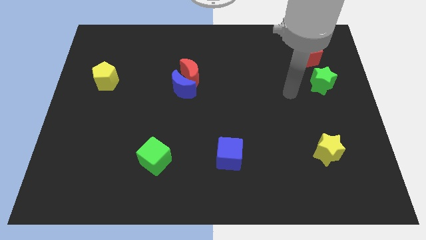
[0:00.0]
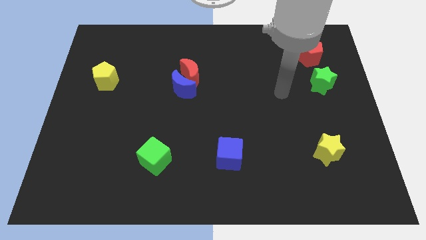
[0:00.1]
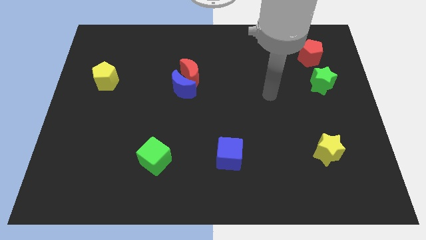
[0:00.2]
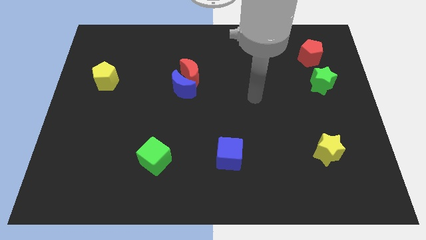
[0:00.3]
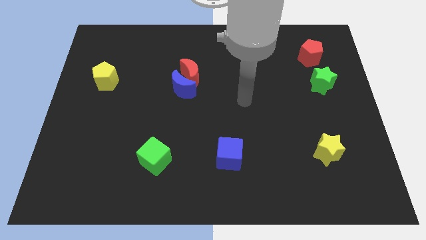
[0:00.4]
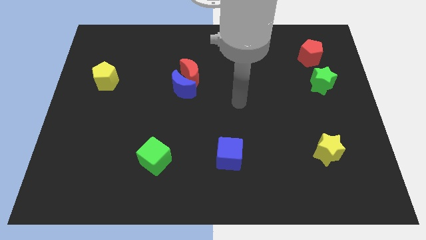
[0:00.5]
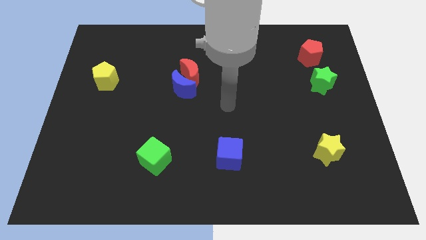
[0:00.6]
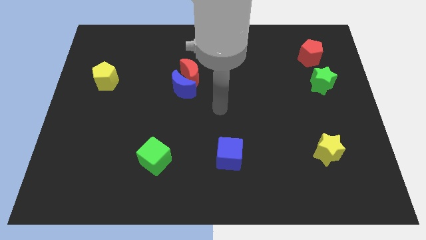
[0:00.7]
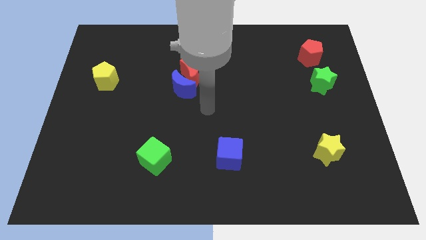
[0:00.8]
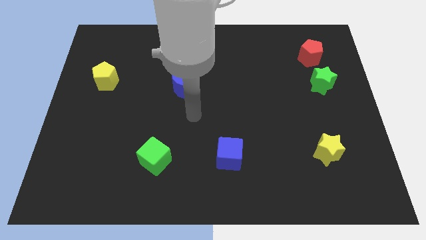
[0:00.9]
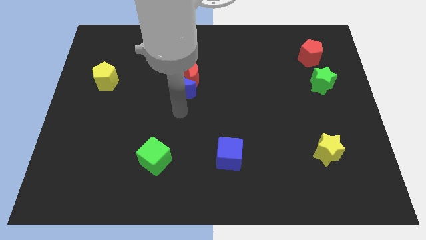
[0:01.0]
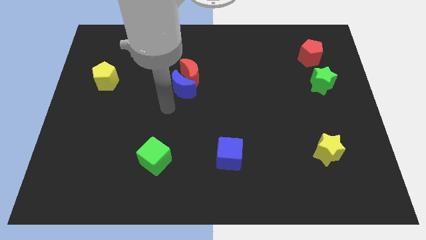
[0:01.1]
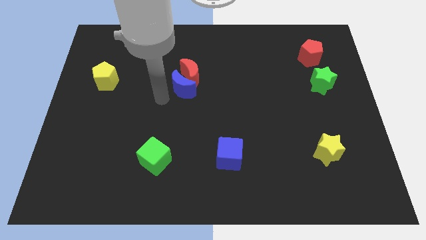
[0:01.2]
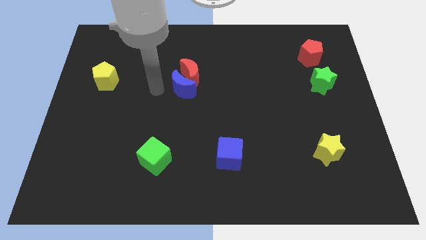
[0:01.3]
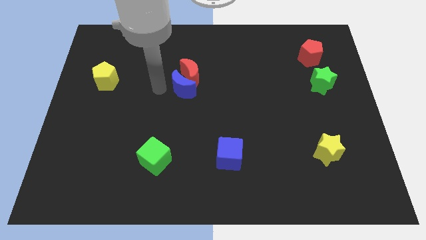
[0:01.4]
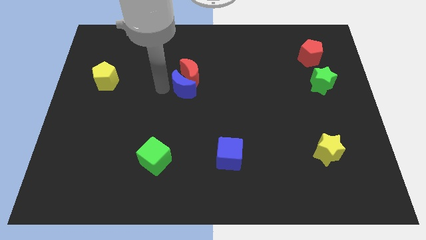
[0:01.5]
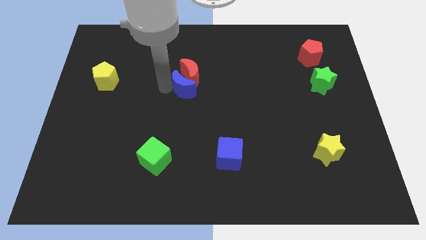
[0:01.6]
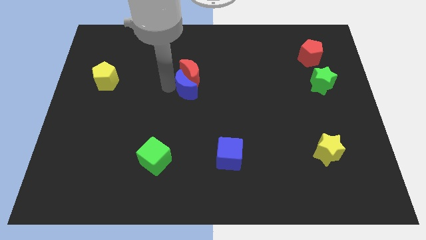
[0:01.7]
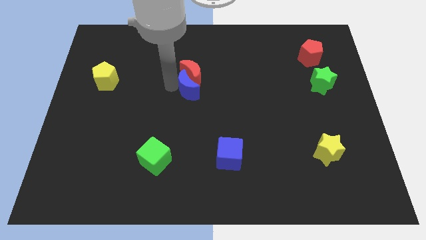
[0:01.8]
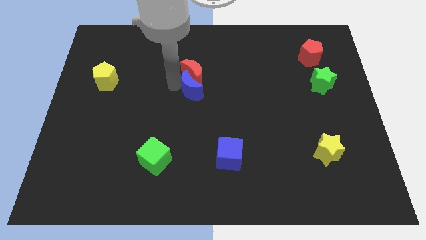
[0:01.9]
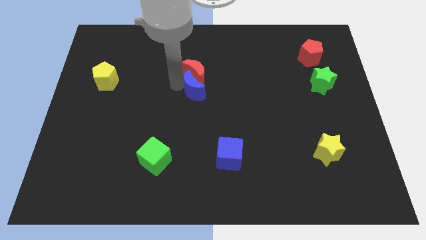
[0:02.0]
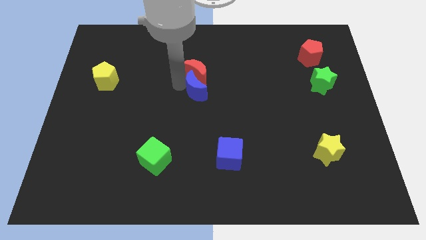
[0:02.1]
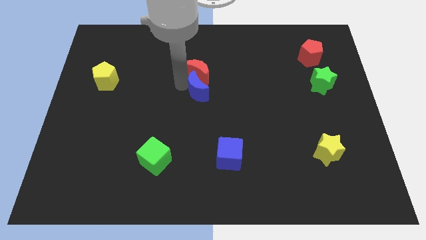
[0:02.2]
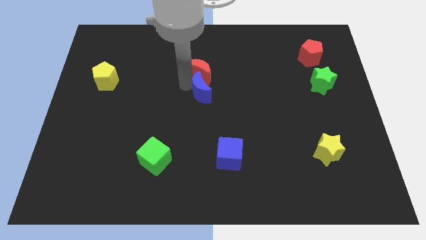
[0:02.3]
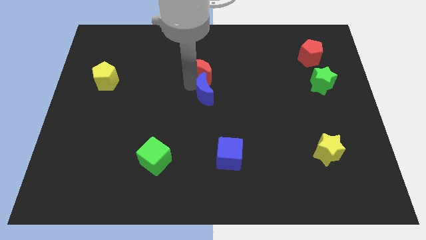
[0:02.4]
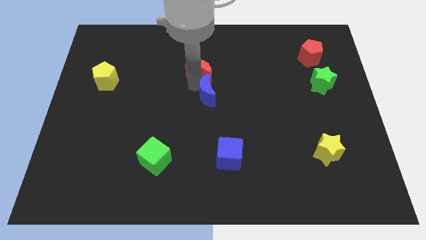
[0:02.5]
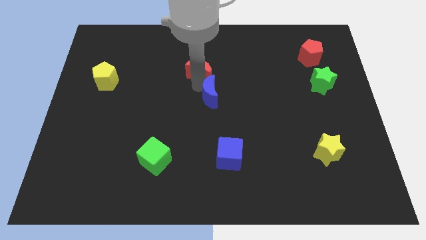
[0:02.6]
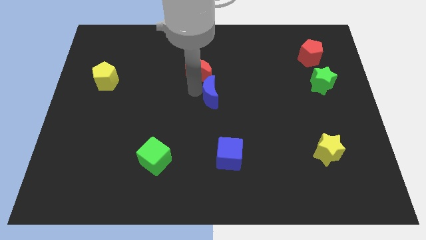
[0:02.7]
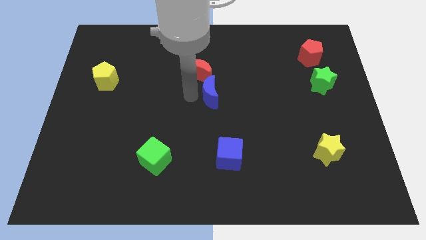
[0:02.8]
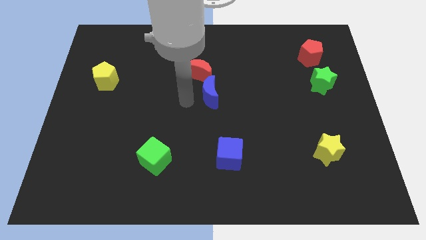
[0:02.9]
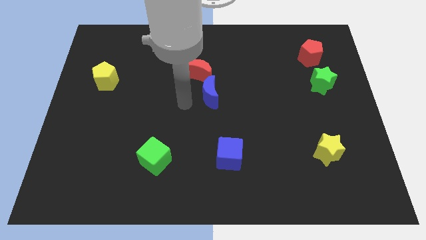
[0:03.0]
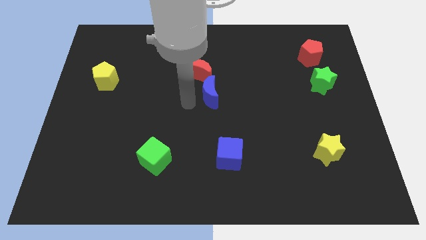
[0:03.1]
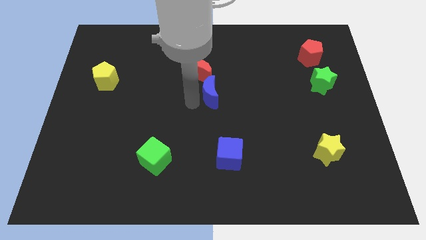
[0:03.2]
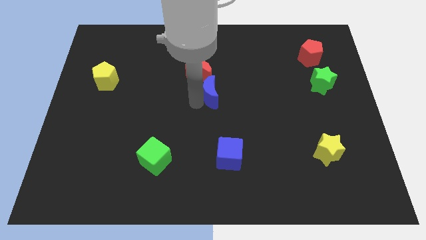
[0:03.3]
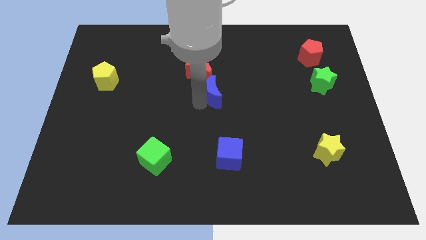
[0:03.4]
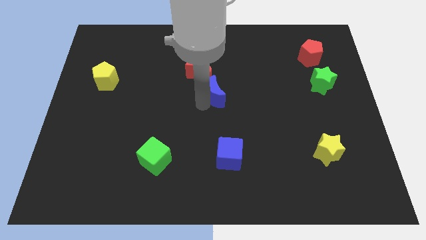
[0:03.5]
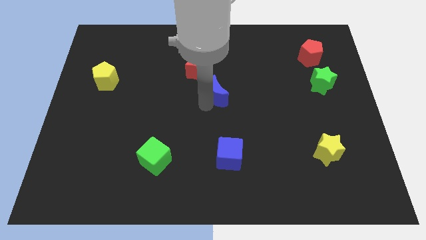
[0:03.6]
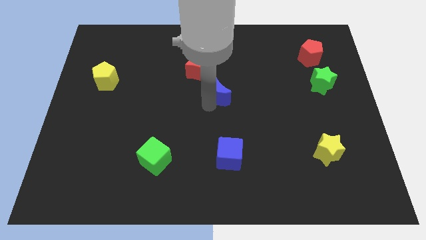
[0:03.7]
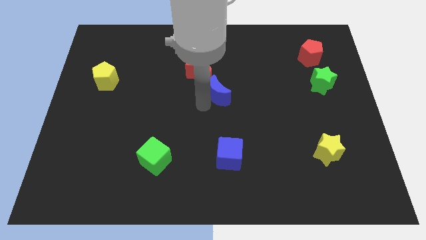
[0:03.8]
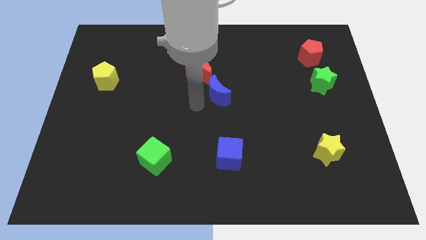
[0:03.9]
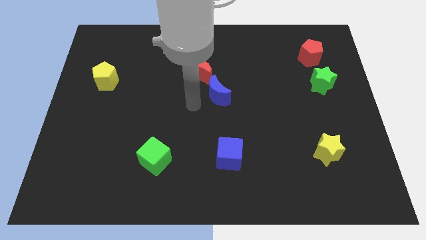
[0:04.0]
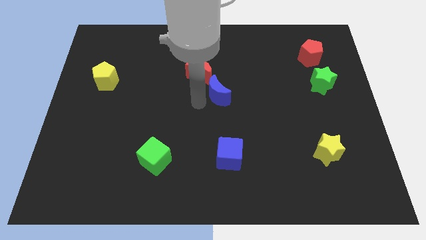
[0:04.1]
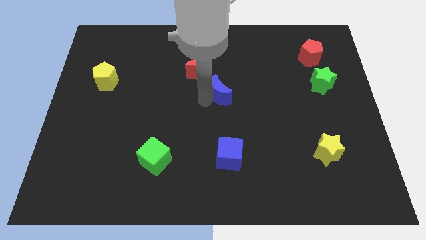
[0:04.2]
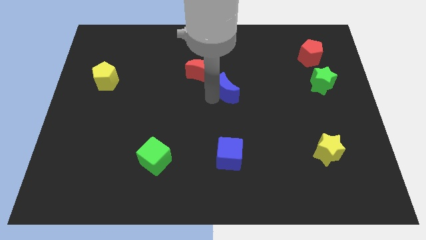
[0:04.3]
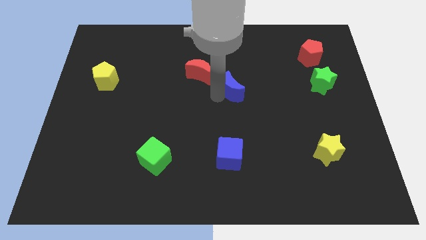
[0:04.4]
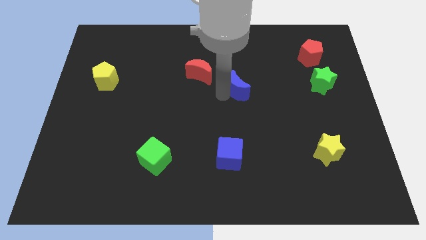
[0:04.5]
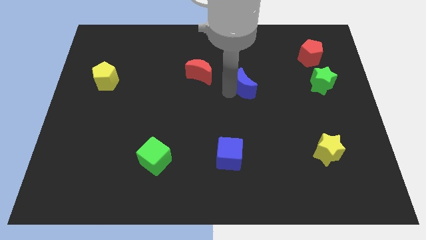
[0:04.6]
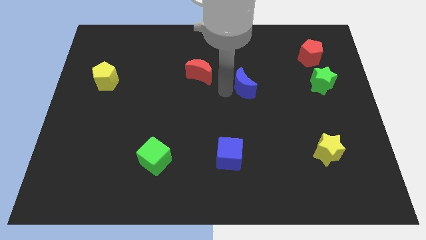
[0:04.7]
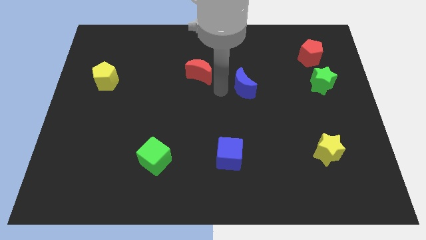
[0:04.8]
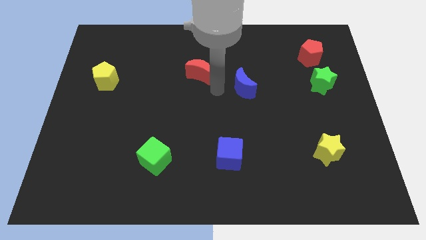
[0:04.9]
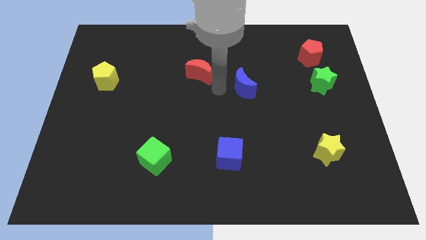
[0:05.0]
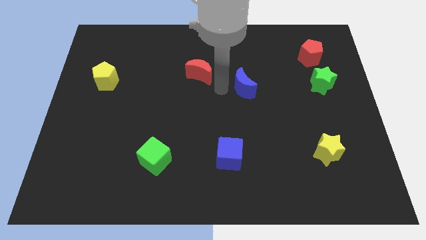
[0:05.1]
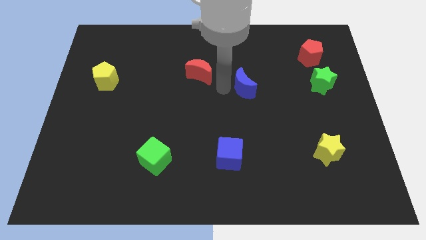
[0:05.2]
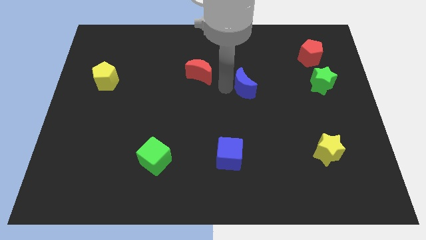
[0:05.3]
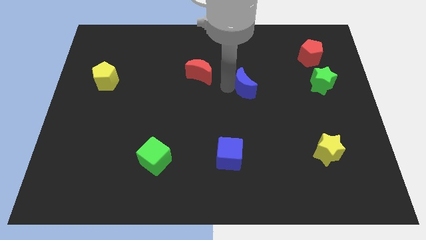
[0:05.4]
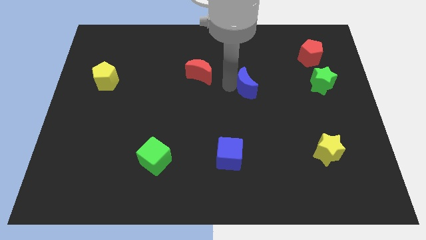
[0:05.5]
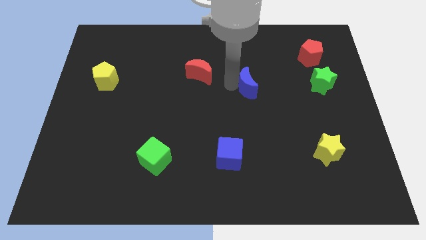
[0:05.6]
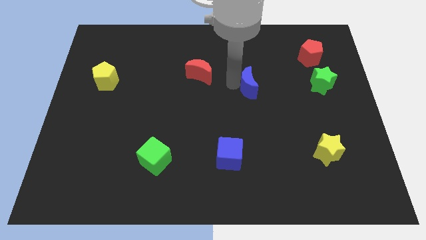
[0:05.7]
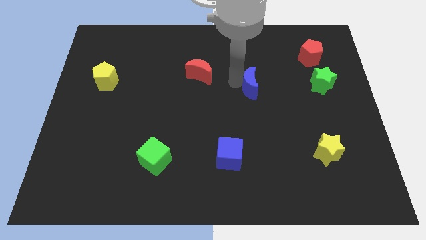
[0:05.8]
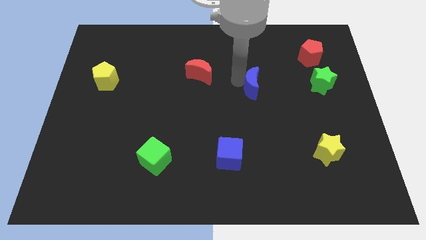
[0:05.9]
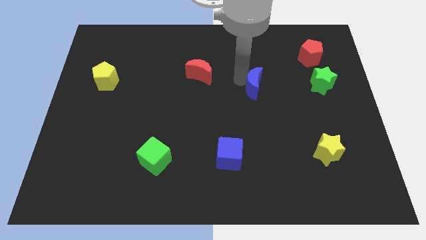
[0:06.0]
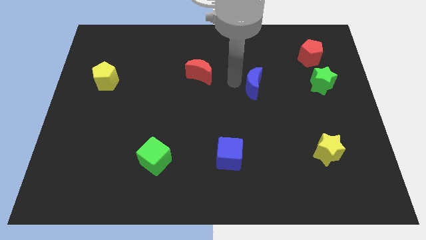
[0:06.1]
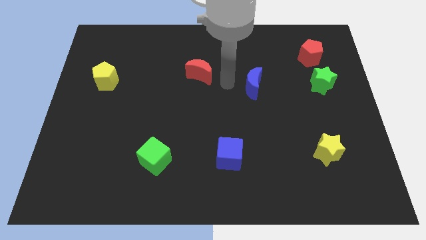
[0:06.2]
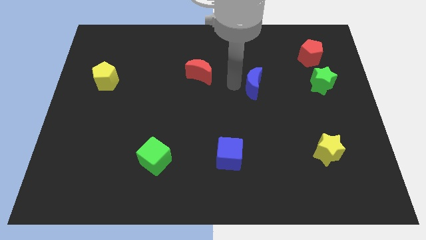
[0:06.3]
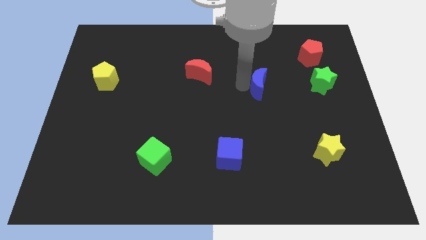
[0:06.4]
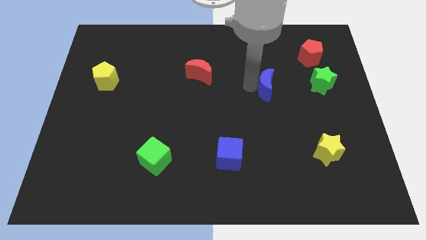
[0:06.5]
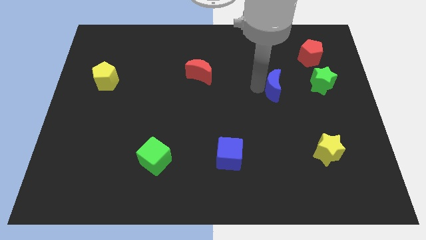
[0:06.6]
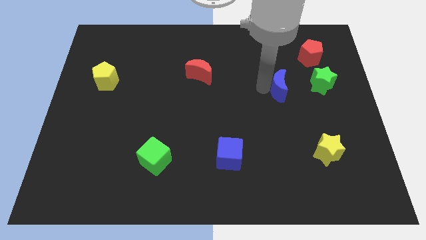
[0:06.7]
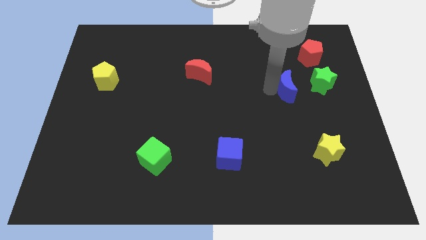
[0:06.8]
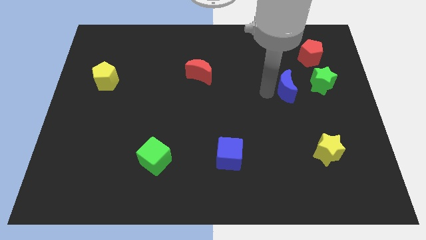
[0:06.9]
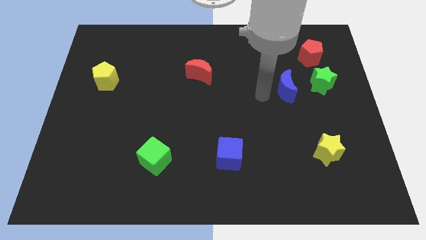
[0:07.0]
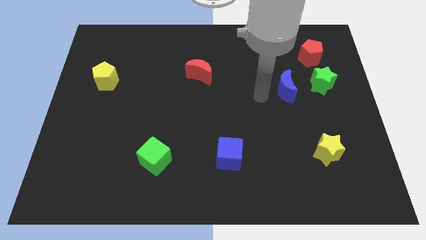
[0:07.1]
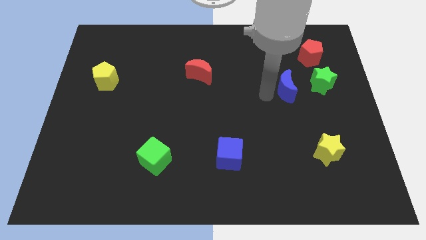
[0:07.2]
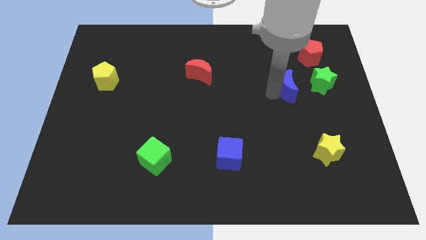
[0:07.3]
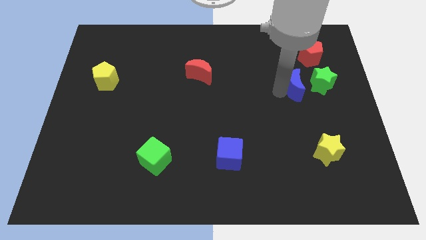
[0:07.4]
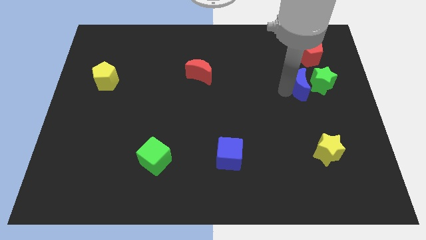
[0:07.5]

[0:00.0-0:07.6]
slide the blue moon close to the green star
